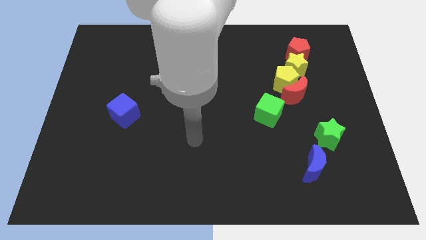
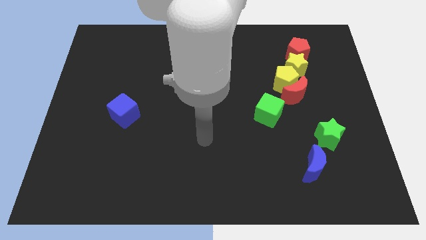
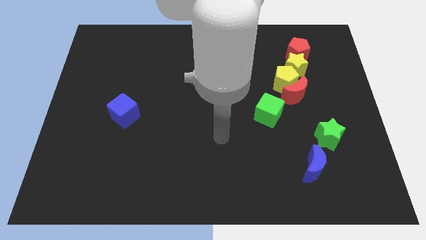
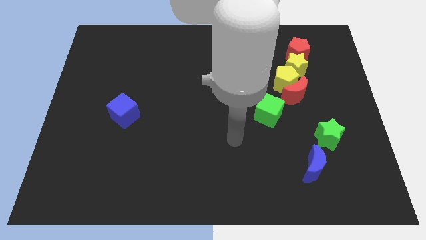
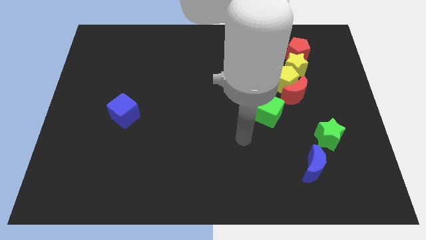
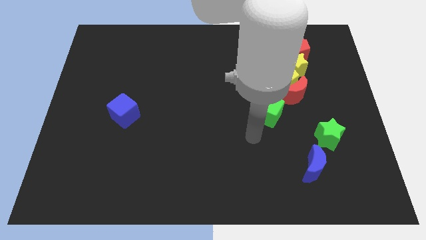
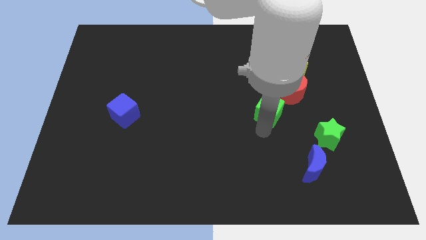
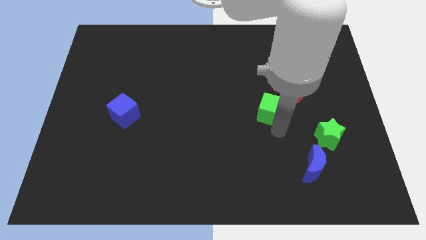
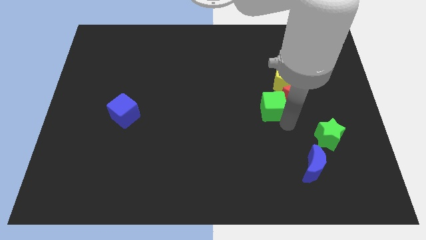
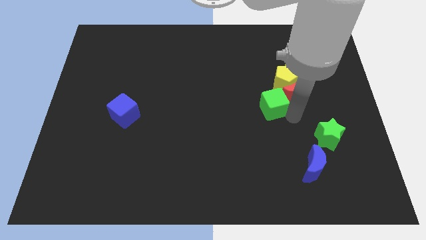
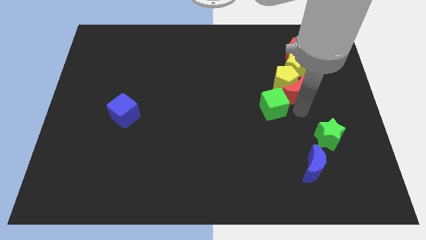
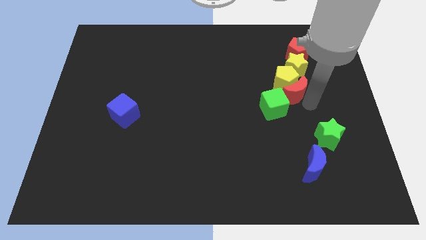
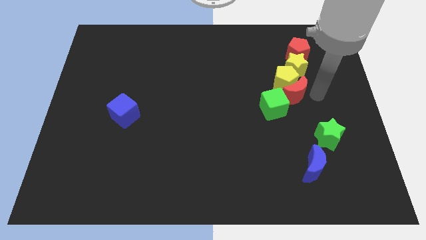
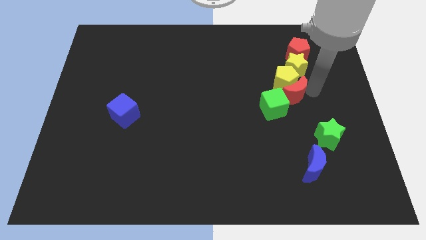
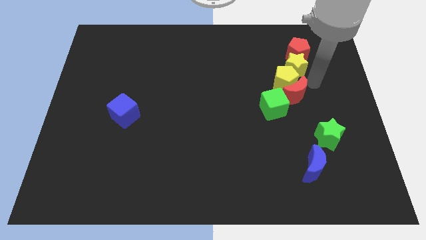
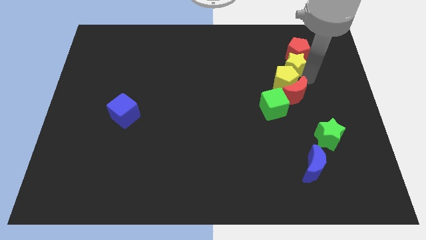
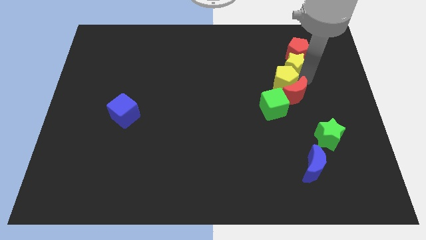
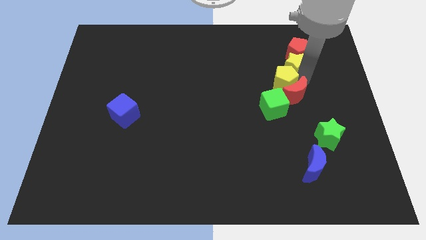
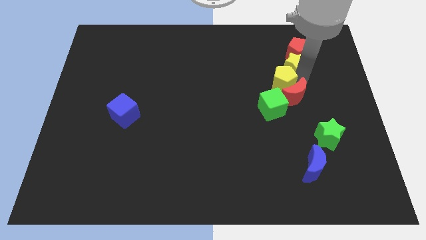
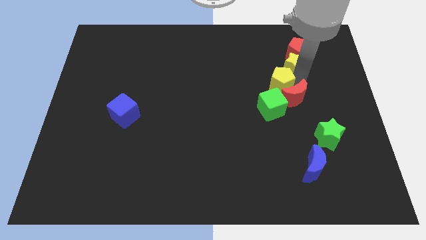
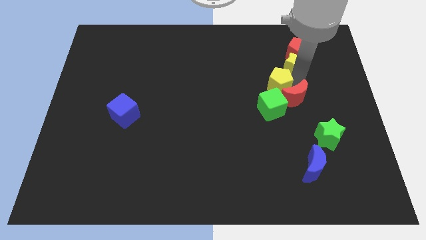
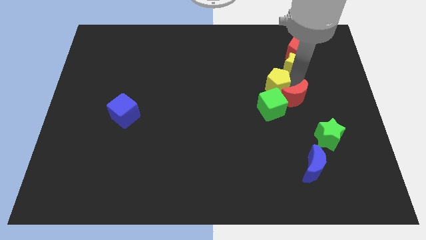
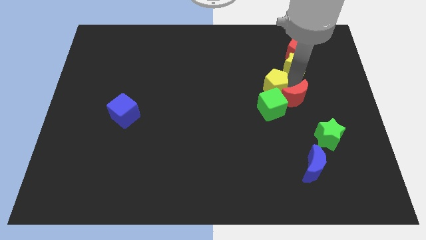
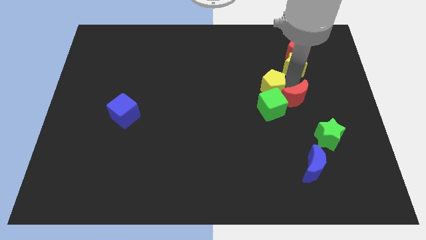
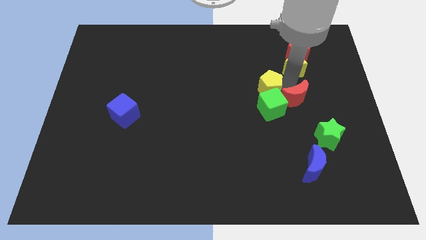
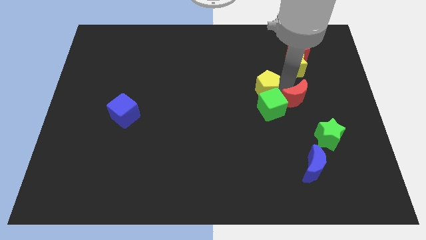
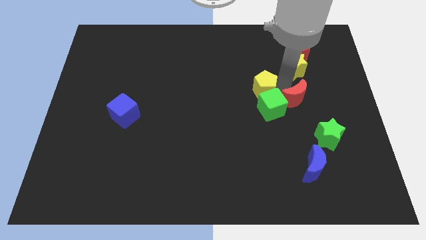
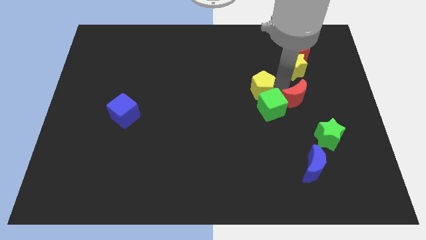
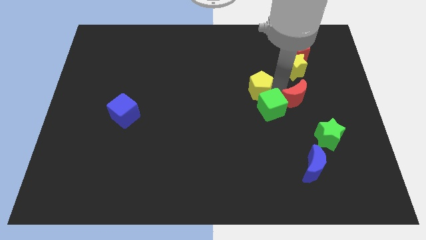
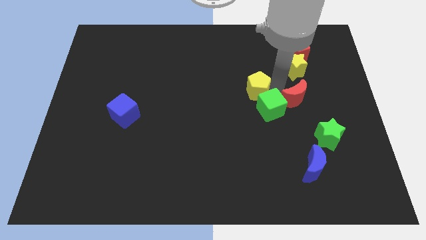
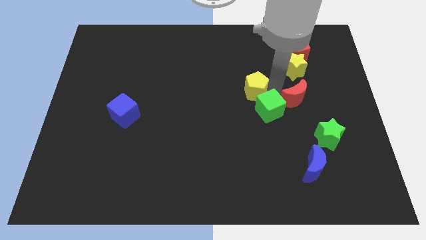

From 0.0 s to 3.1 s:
pull the yellow pentagon apart from the red moon and yellow star

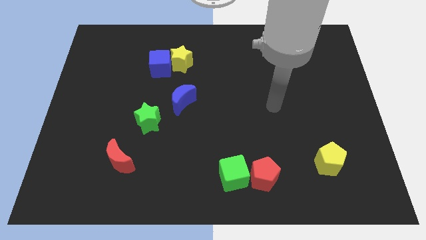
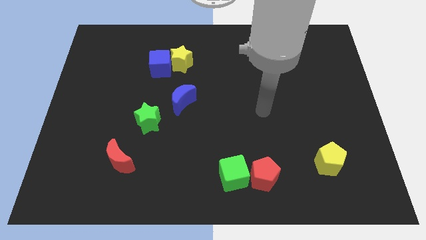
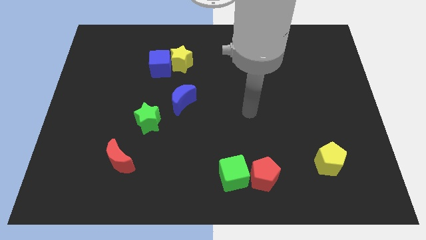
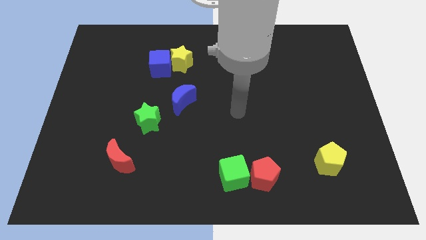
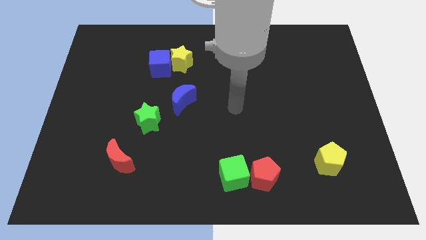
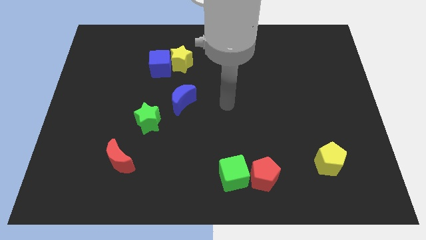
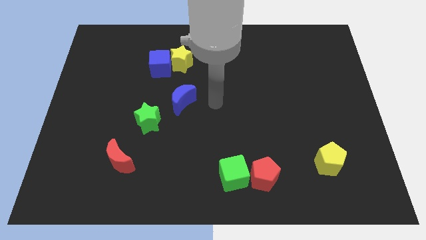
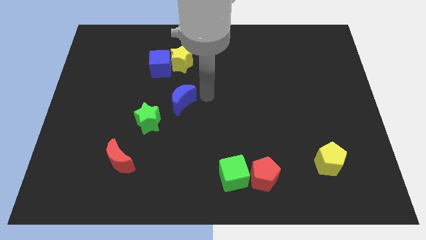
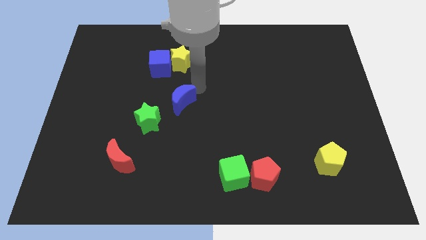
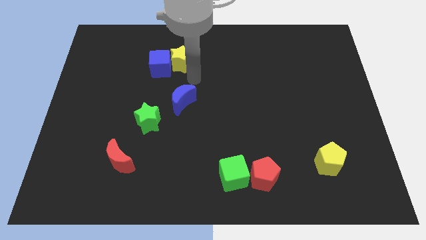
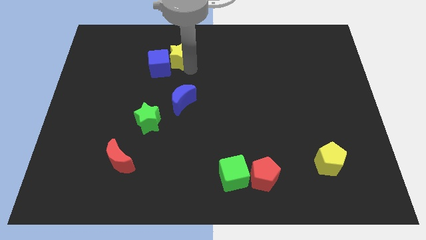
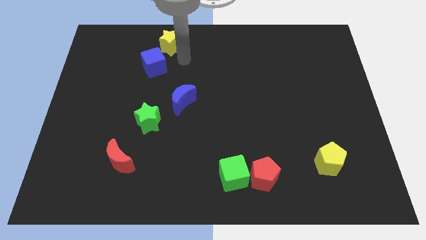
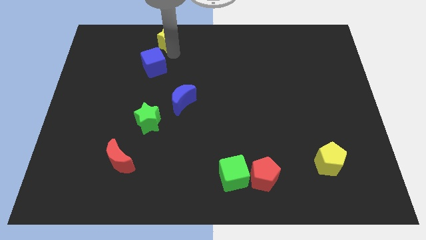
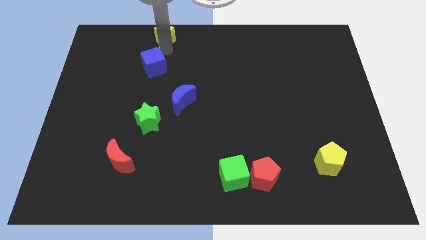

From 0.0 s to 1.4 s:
pull the blue cube apart from the yellow star

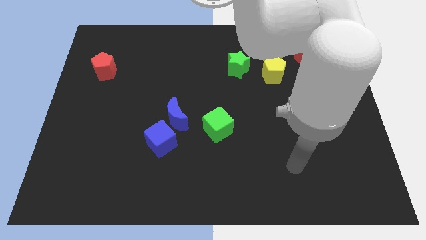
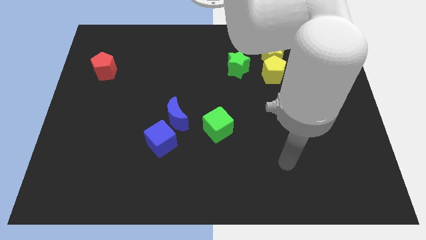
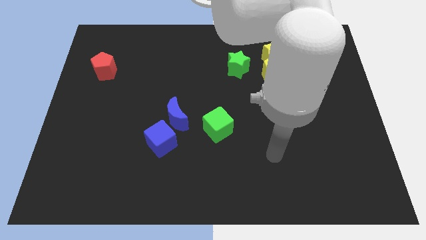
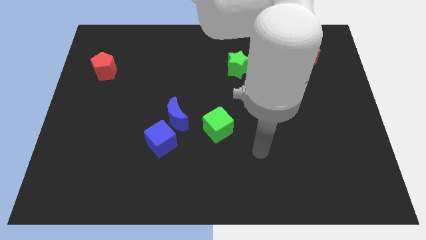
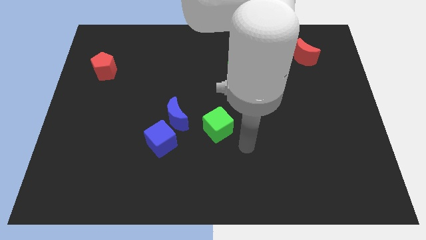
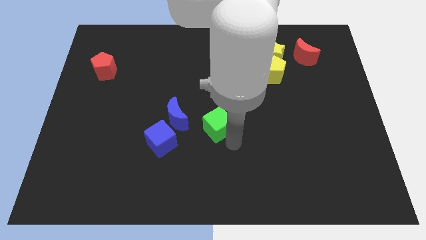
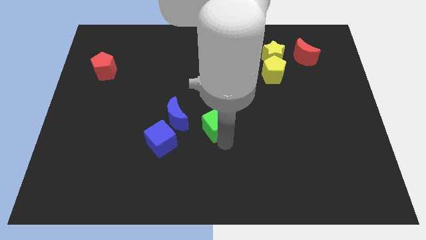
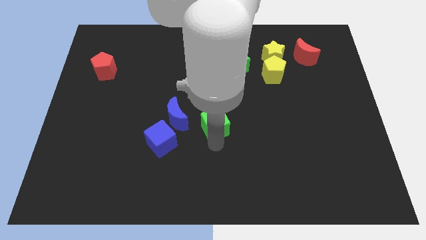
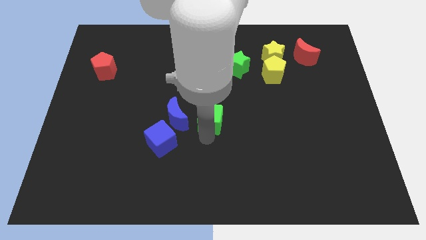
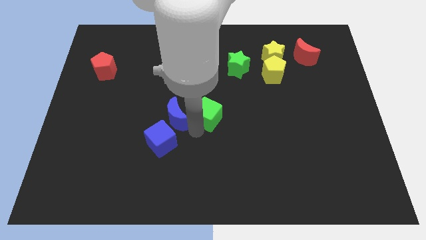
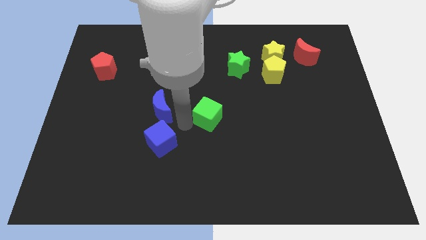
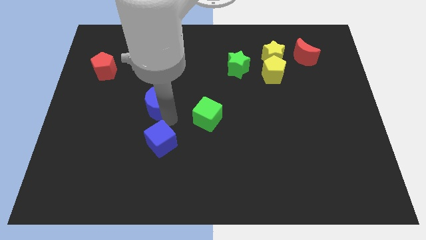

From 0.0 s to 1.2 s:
move the blue cube away from the blue moon

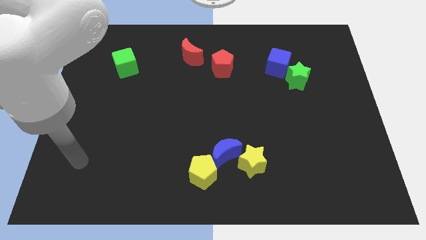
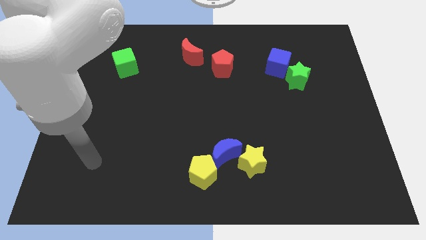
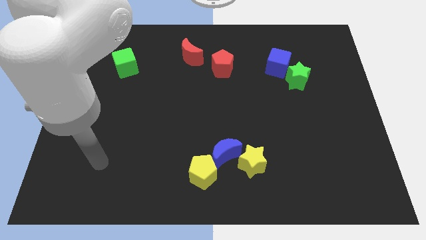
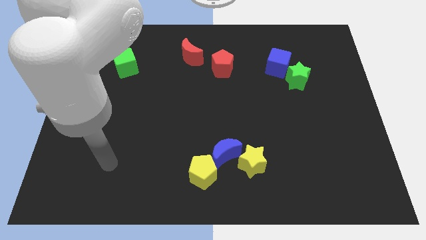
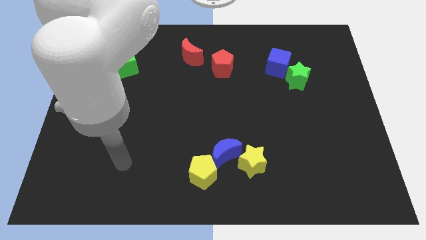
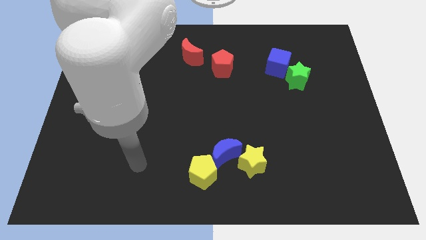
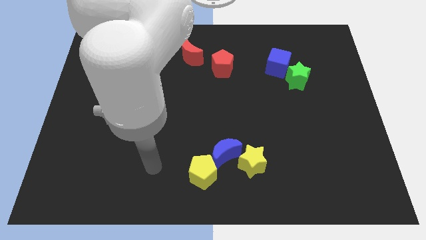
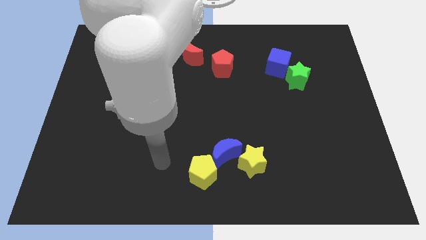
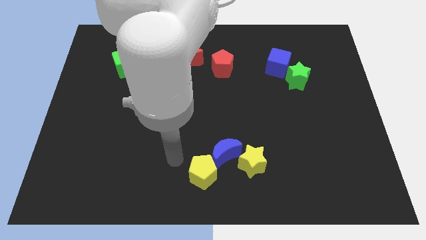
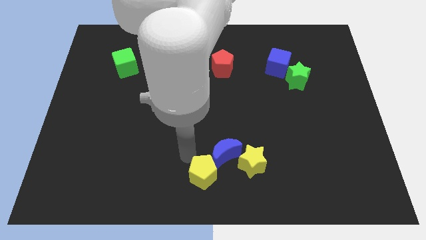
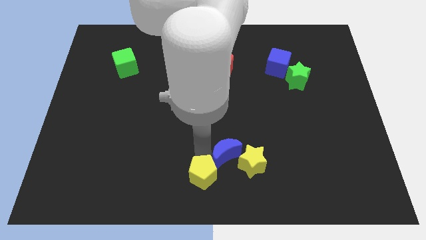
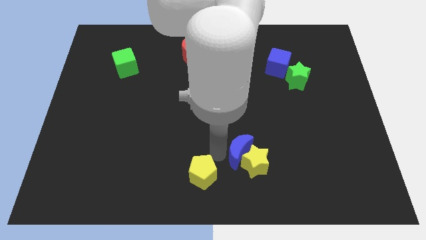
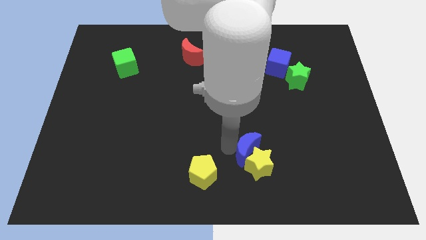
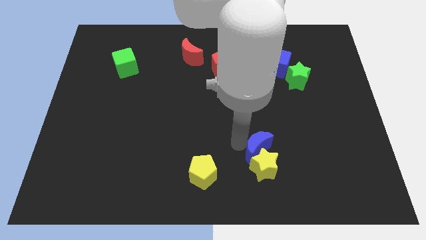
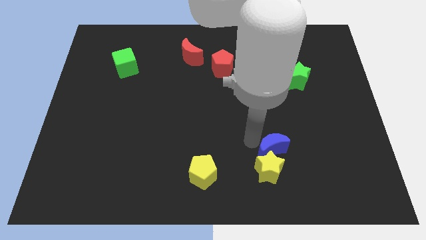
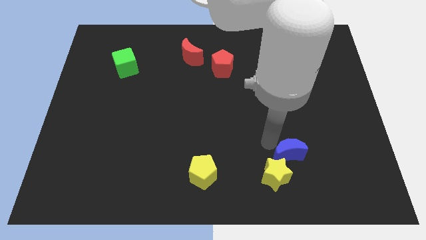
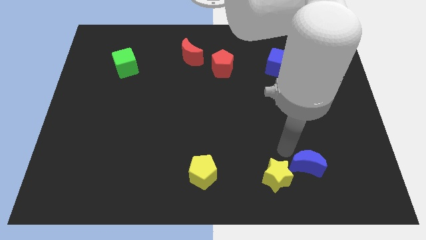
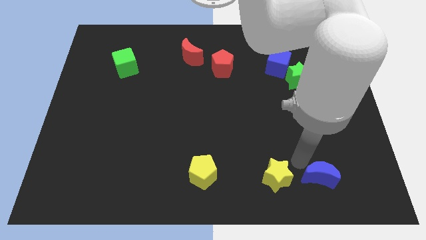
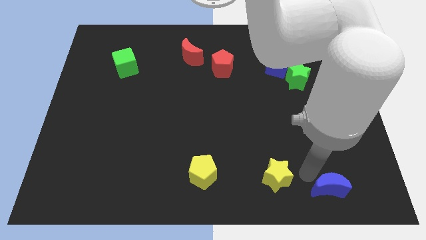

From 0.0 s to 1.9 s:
move the yellow star away from the blue moon

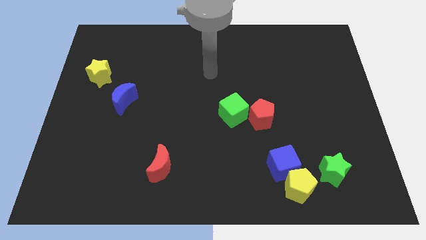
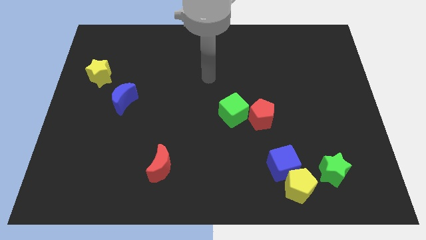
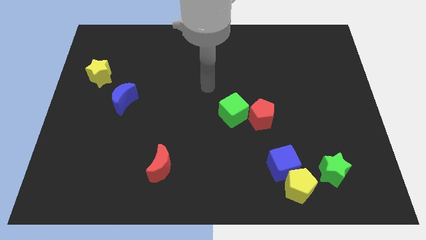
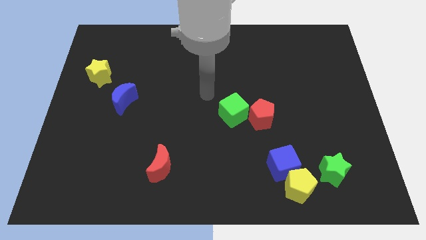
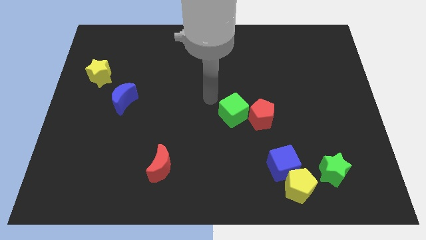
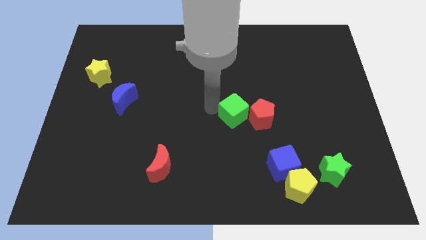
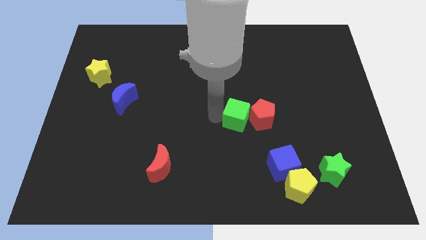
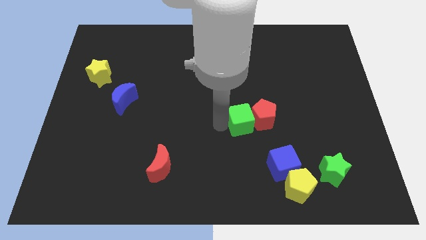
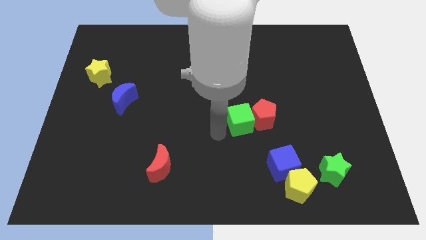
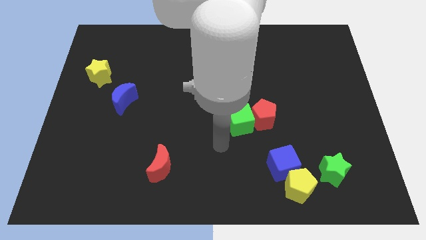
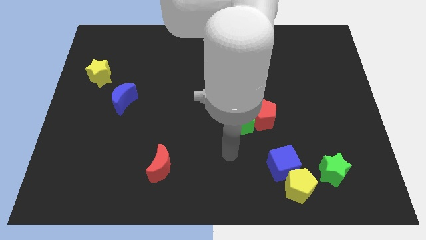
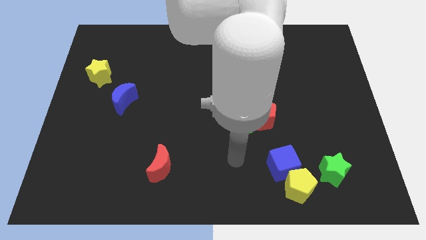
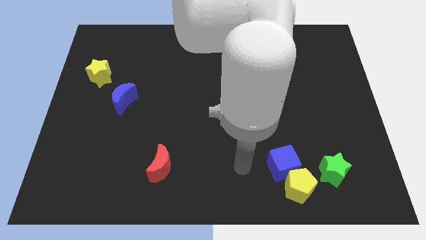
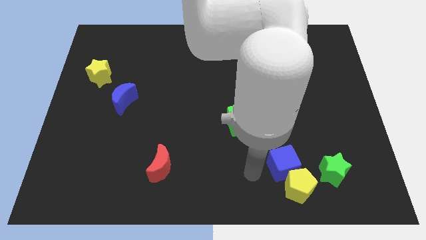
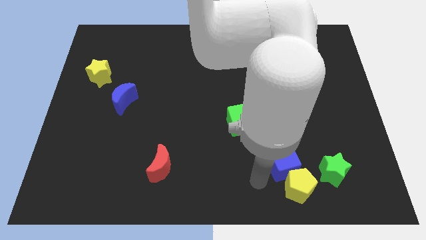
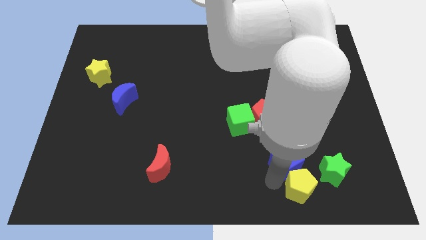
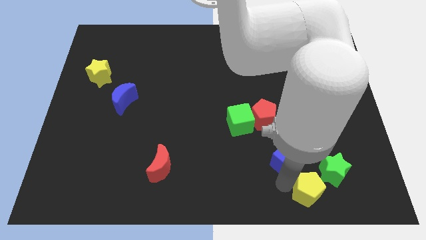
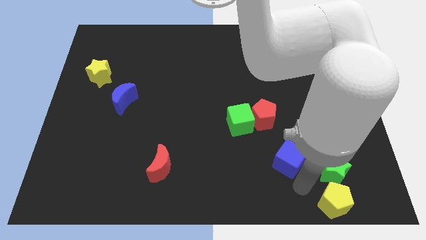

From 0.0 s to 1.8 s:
separate the blue cube from the yellow pentagon
